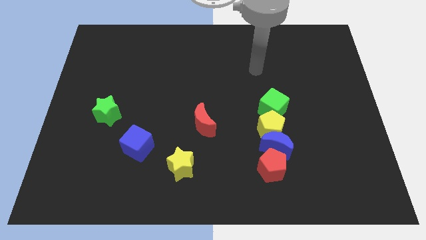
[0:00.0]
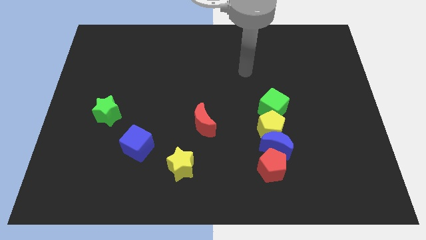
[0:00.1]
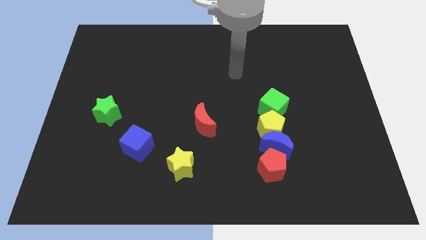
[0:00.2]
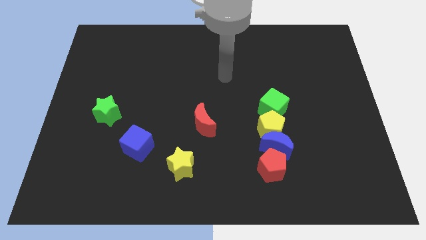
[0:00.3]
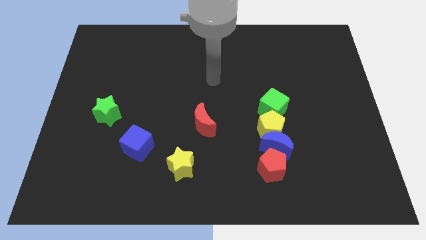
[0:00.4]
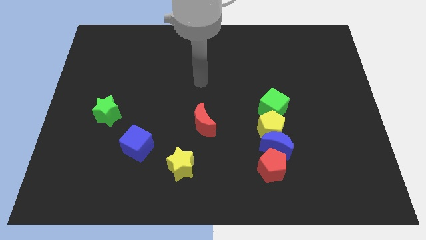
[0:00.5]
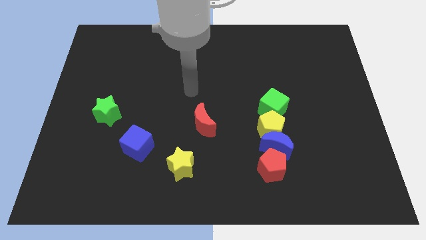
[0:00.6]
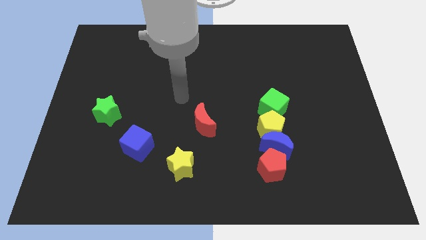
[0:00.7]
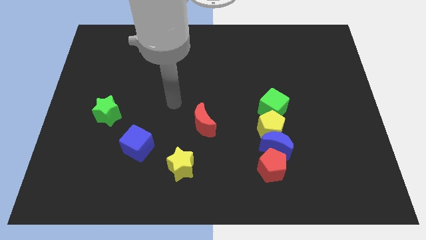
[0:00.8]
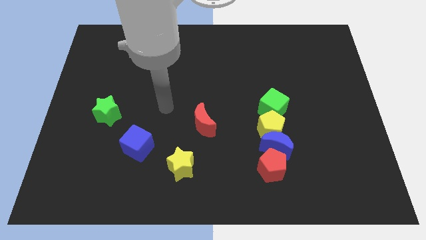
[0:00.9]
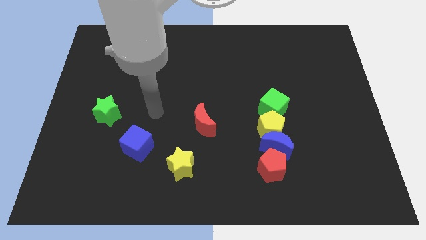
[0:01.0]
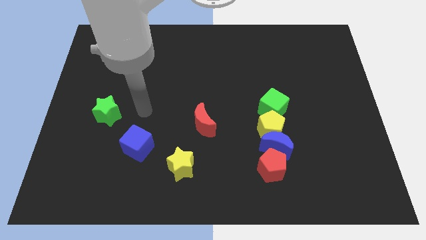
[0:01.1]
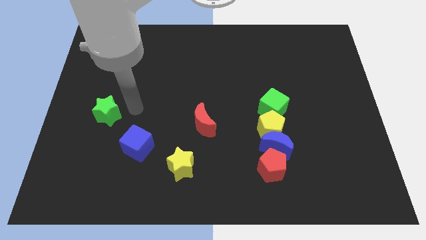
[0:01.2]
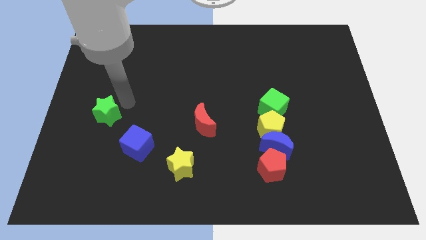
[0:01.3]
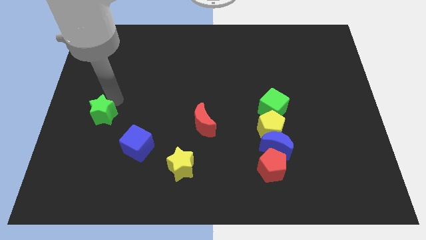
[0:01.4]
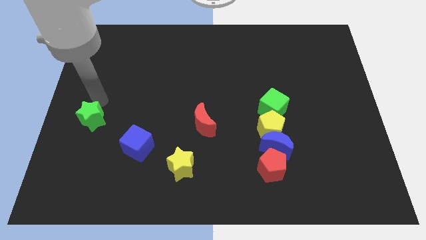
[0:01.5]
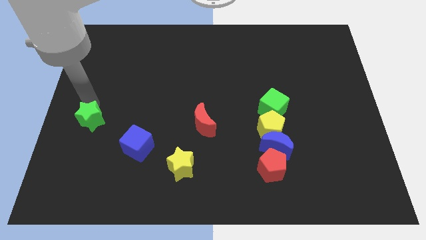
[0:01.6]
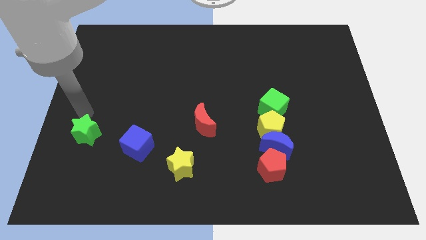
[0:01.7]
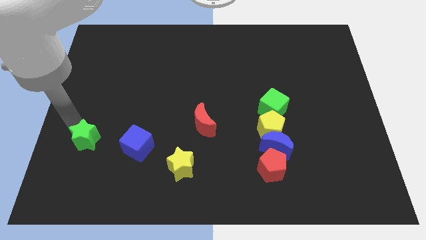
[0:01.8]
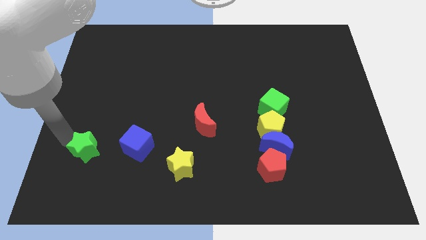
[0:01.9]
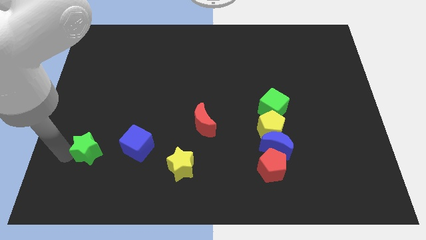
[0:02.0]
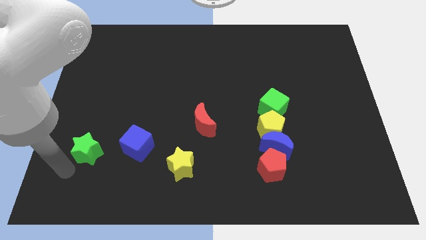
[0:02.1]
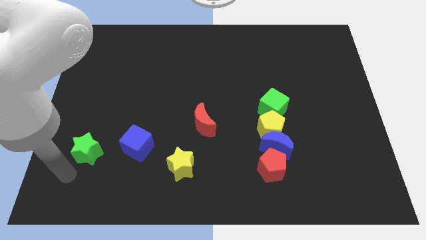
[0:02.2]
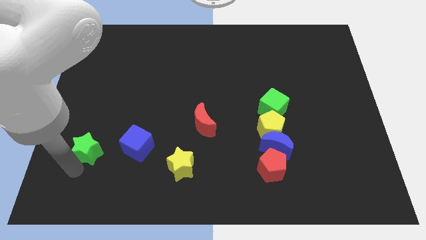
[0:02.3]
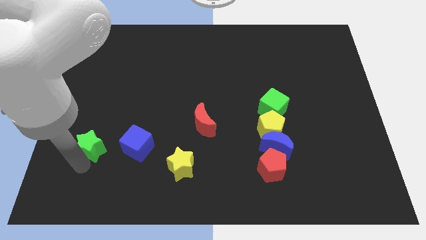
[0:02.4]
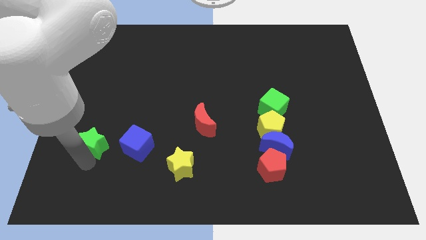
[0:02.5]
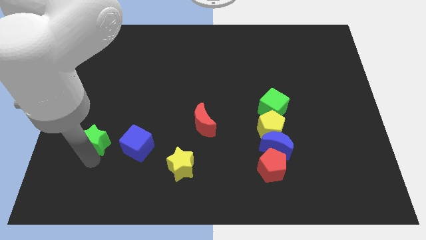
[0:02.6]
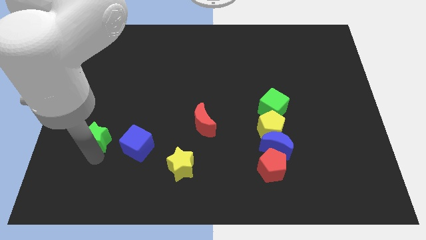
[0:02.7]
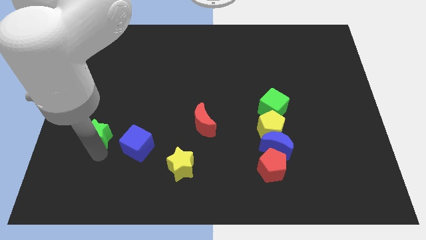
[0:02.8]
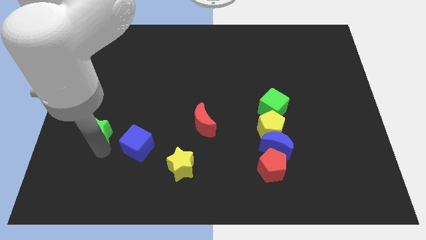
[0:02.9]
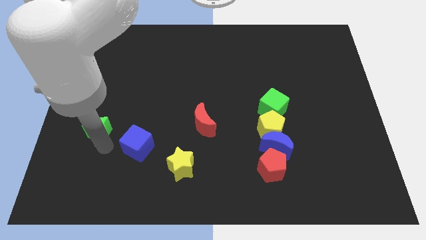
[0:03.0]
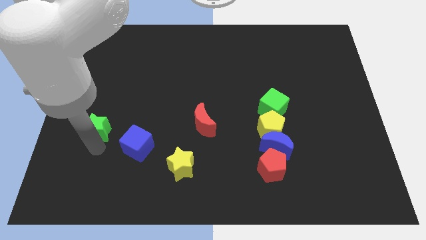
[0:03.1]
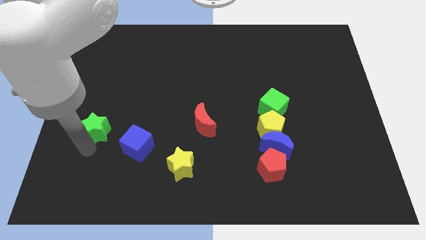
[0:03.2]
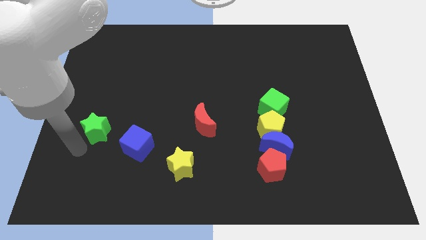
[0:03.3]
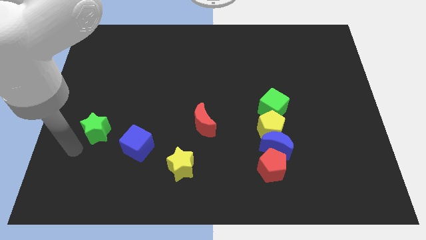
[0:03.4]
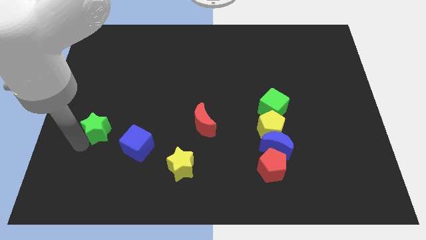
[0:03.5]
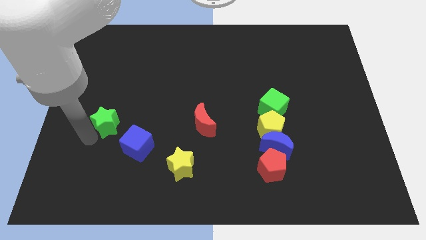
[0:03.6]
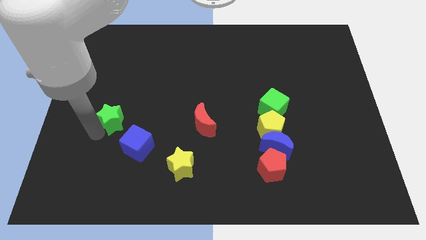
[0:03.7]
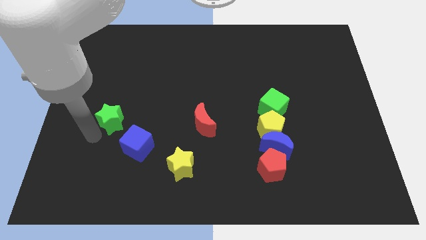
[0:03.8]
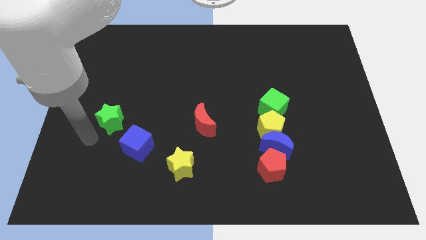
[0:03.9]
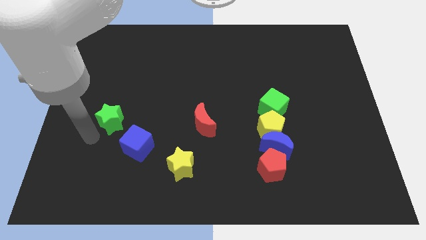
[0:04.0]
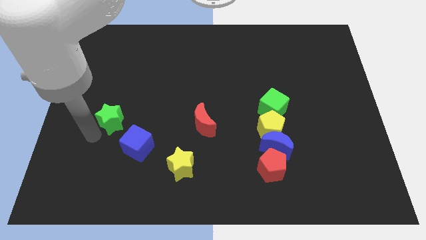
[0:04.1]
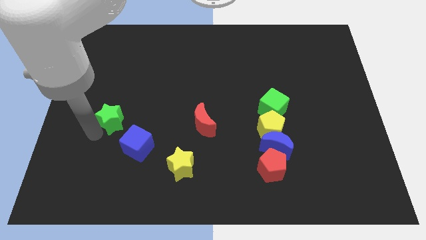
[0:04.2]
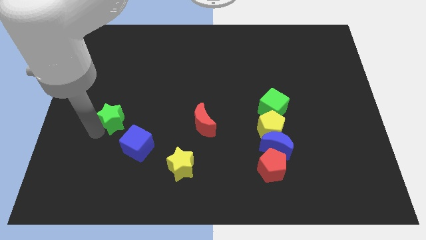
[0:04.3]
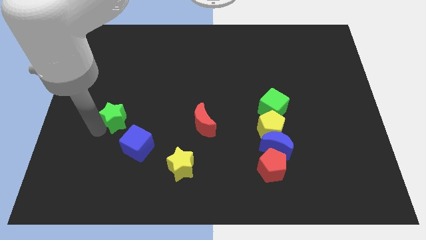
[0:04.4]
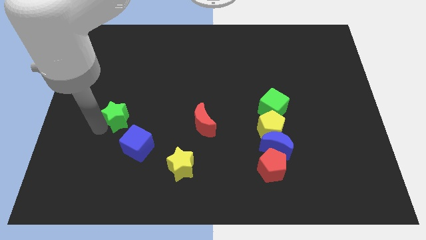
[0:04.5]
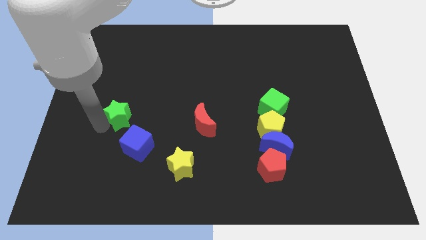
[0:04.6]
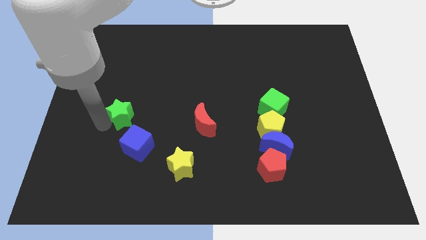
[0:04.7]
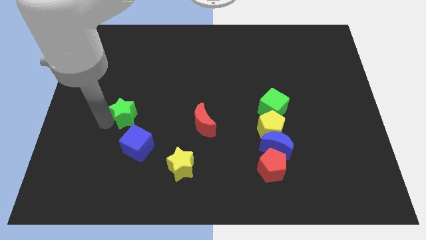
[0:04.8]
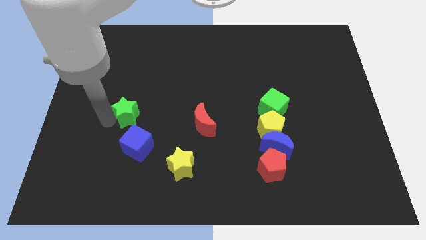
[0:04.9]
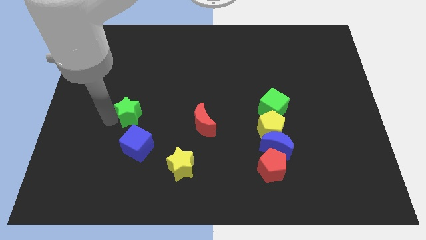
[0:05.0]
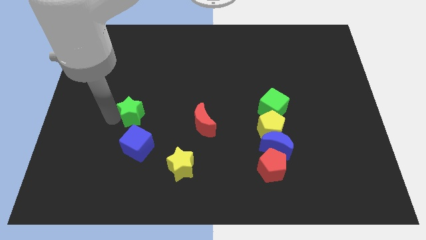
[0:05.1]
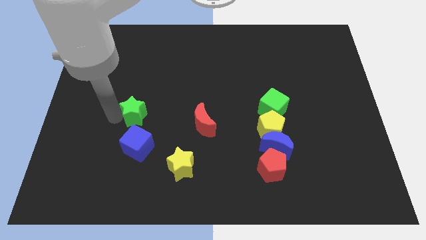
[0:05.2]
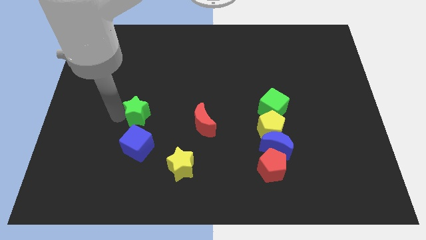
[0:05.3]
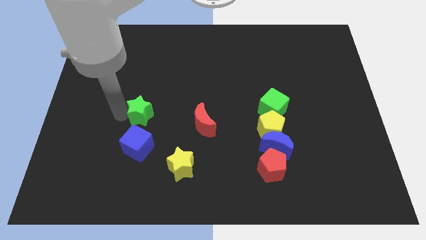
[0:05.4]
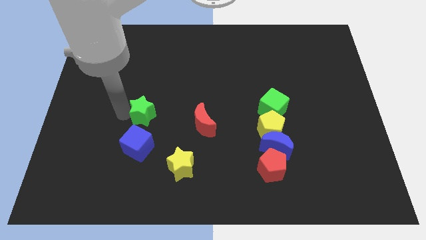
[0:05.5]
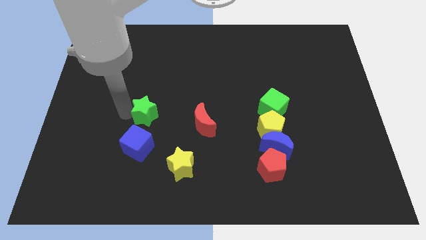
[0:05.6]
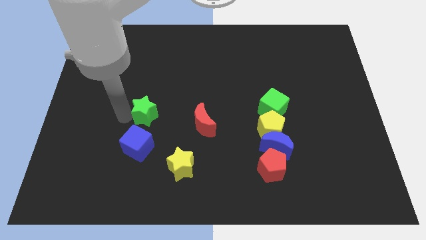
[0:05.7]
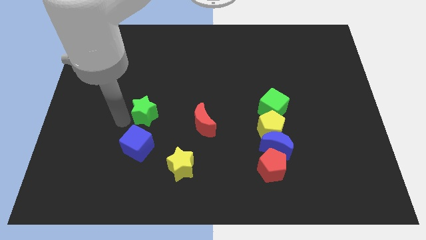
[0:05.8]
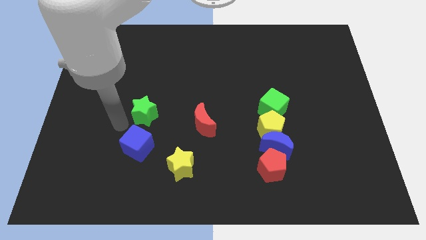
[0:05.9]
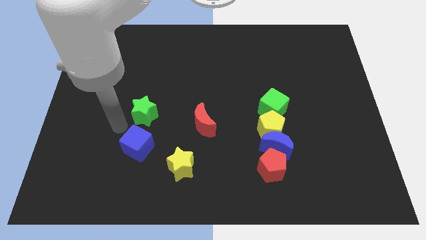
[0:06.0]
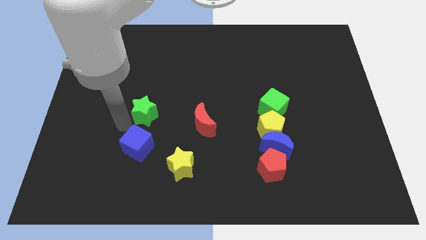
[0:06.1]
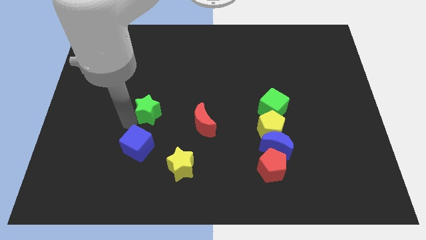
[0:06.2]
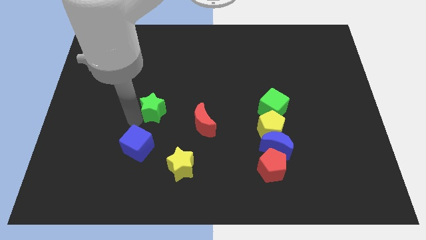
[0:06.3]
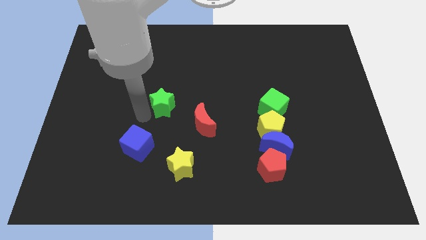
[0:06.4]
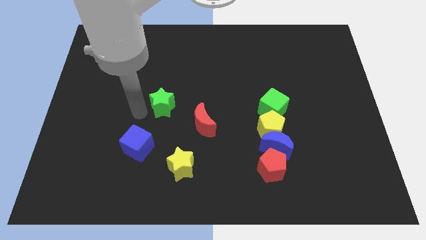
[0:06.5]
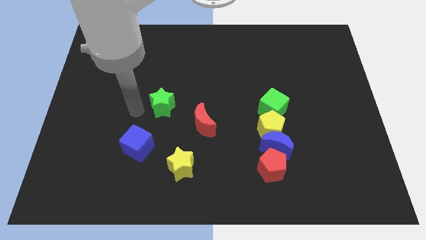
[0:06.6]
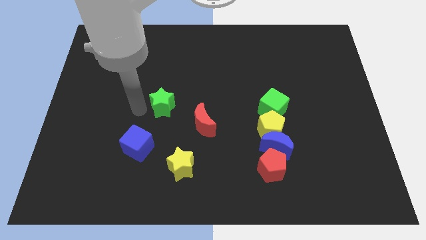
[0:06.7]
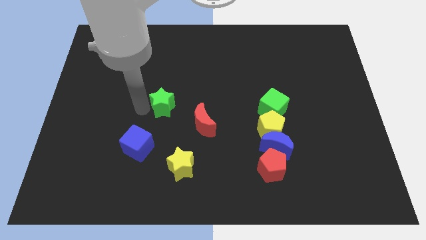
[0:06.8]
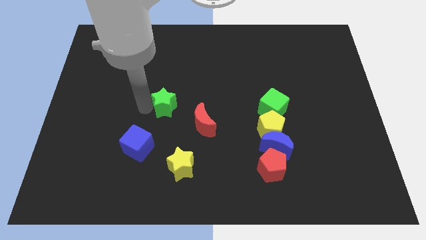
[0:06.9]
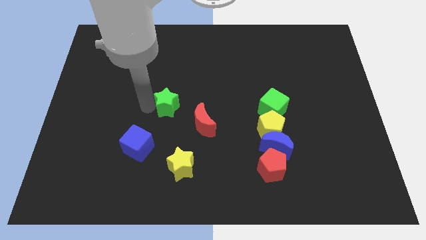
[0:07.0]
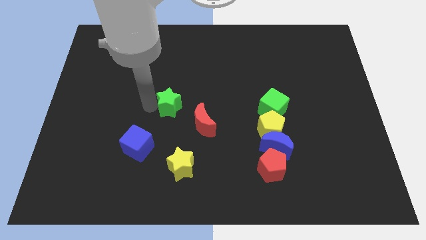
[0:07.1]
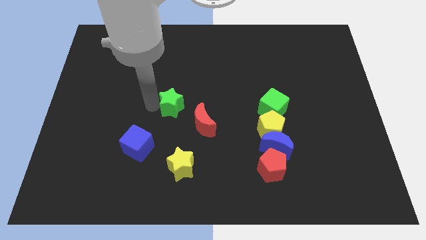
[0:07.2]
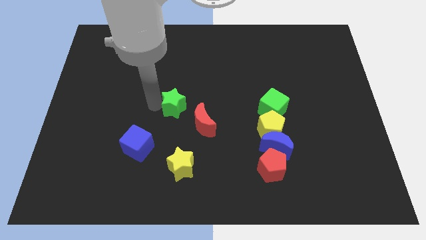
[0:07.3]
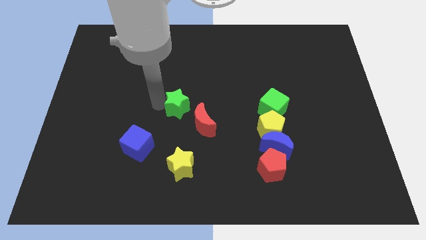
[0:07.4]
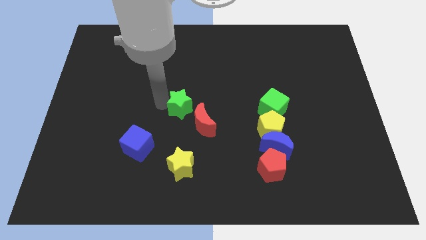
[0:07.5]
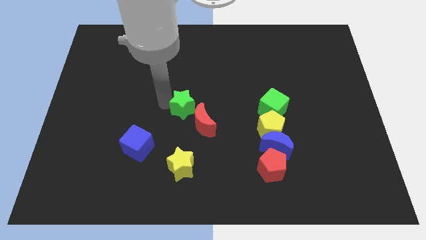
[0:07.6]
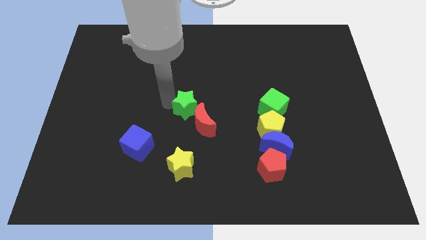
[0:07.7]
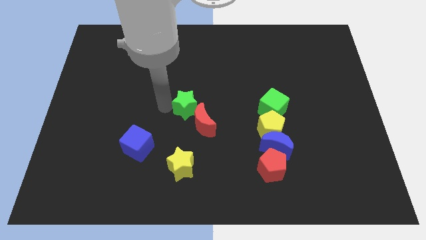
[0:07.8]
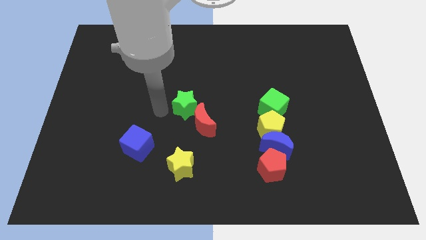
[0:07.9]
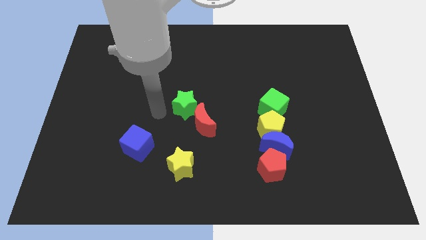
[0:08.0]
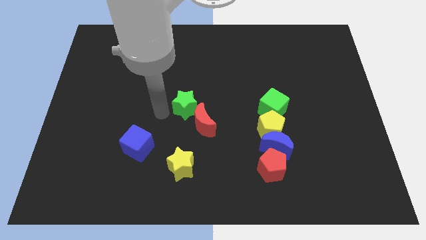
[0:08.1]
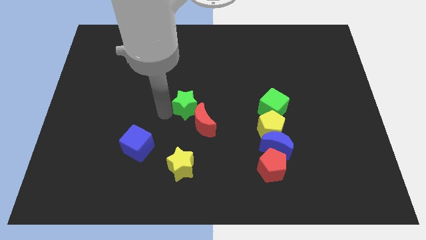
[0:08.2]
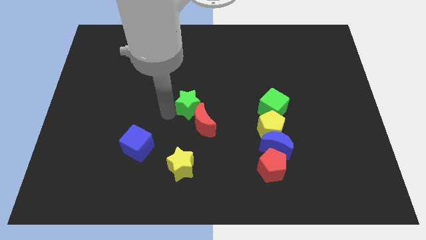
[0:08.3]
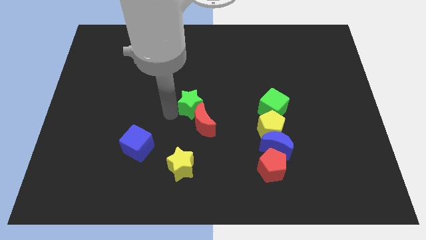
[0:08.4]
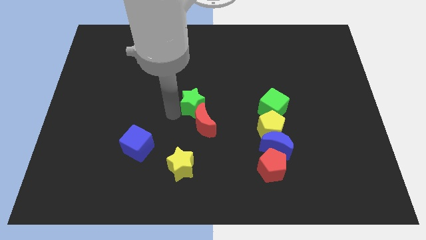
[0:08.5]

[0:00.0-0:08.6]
slide the green star right
